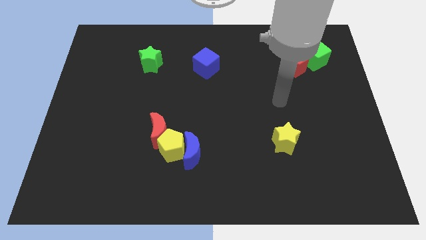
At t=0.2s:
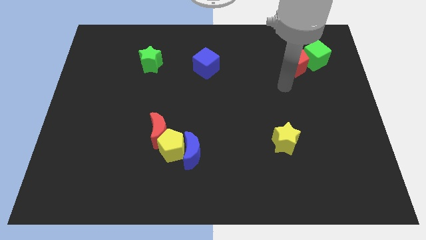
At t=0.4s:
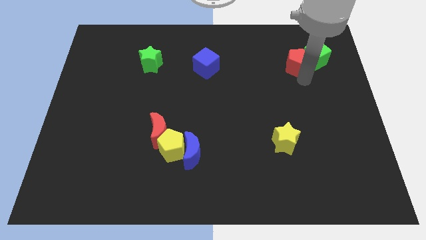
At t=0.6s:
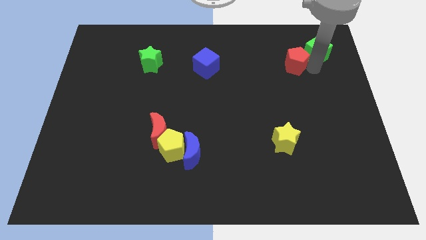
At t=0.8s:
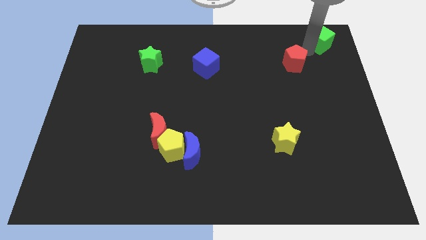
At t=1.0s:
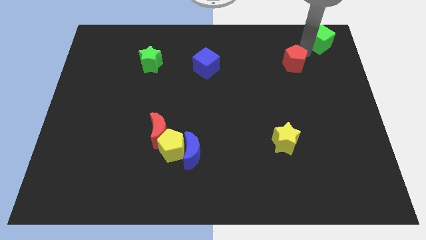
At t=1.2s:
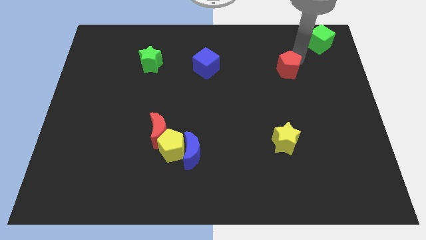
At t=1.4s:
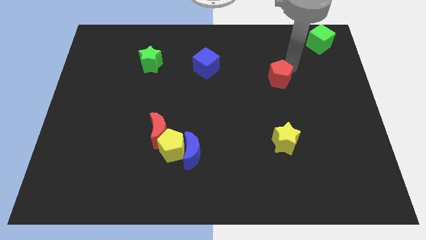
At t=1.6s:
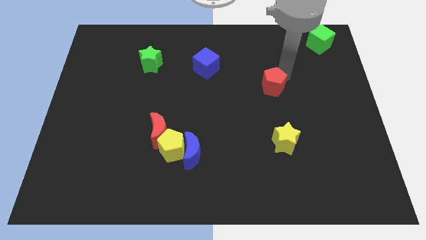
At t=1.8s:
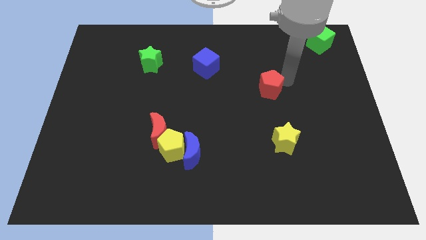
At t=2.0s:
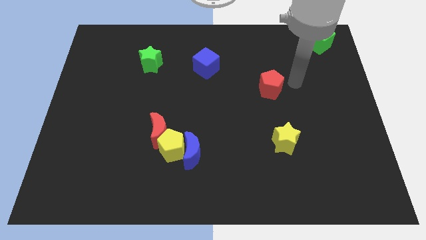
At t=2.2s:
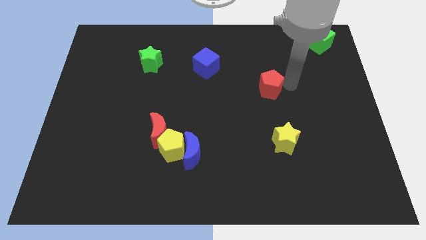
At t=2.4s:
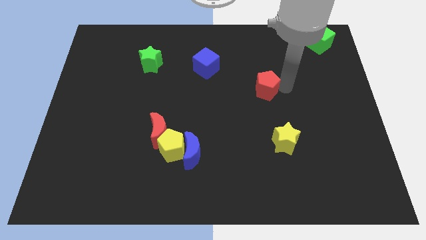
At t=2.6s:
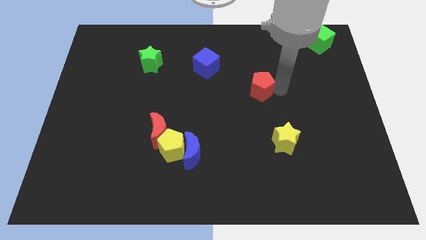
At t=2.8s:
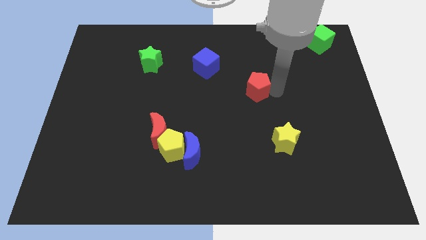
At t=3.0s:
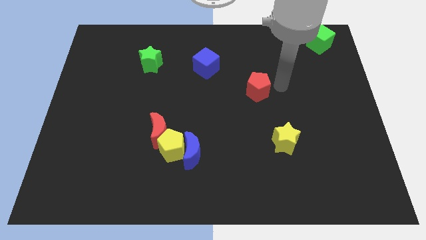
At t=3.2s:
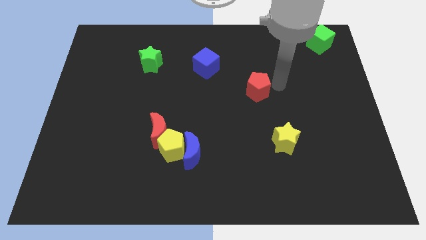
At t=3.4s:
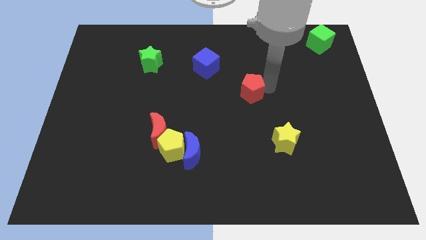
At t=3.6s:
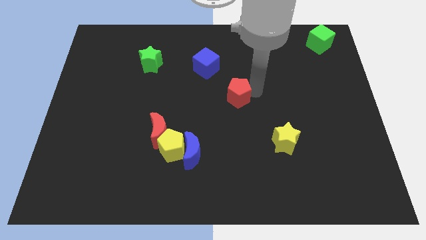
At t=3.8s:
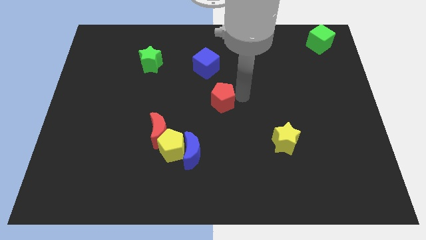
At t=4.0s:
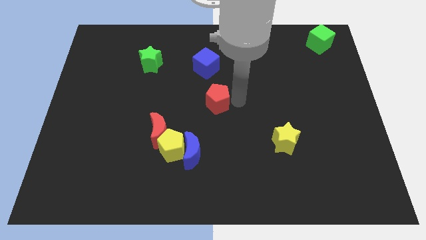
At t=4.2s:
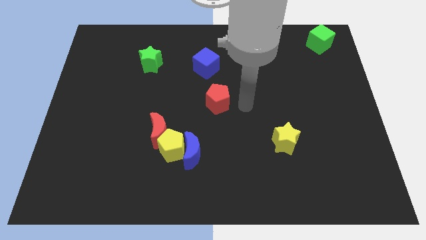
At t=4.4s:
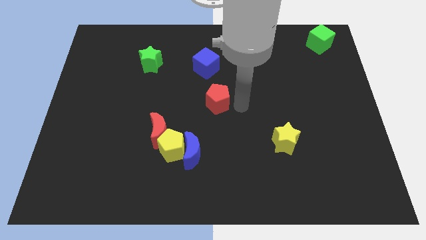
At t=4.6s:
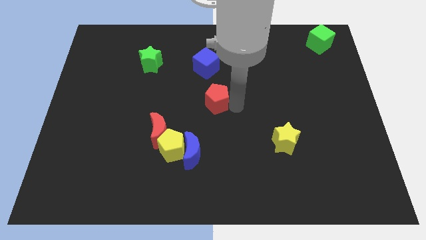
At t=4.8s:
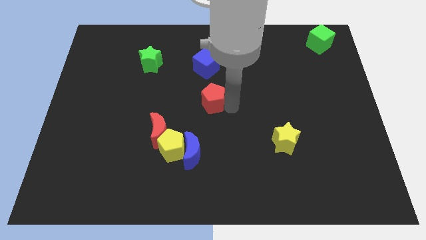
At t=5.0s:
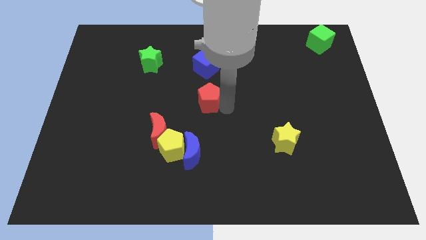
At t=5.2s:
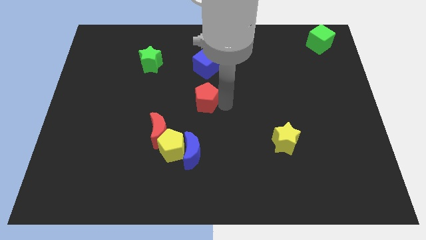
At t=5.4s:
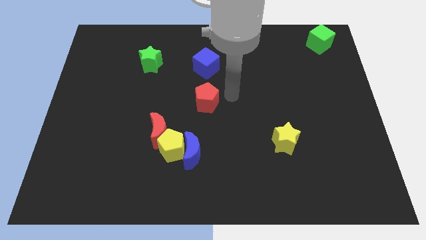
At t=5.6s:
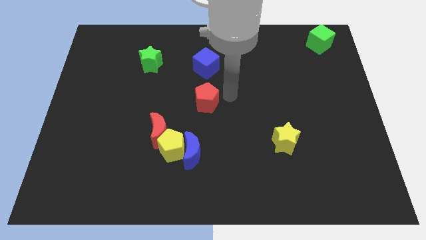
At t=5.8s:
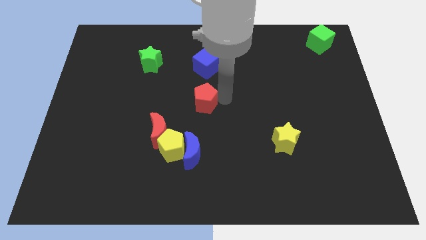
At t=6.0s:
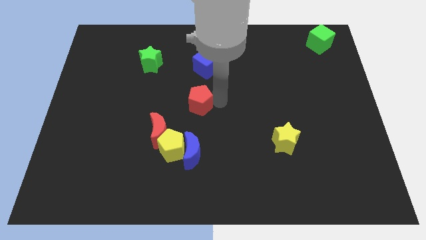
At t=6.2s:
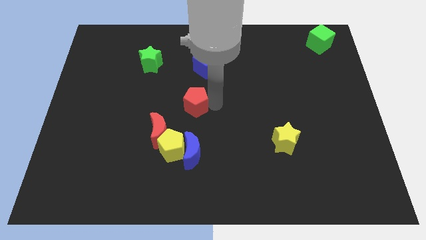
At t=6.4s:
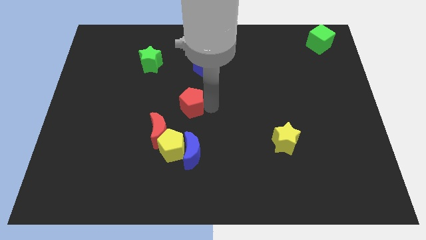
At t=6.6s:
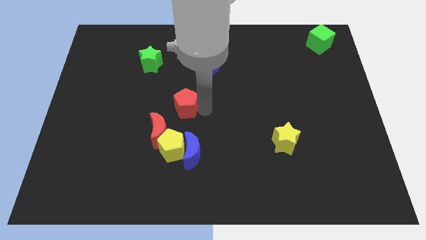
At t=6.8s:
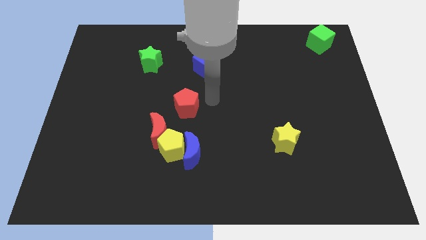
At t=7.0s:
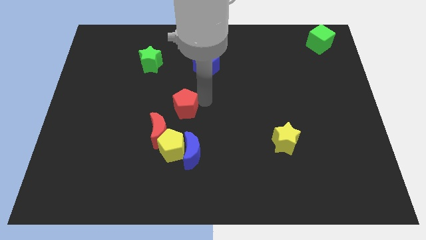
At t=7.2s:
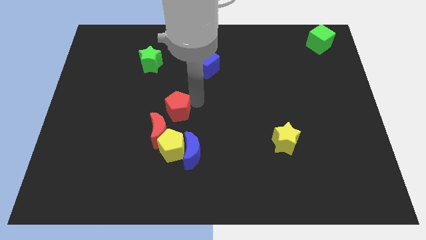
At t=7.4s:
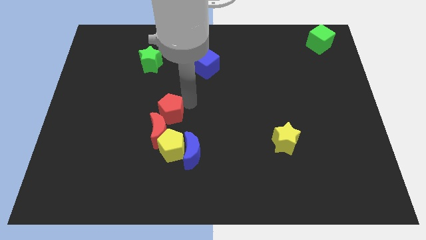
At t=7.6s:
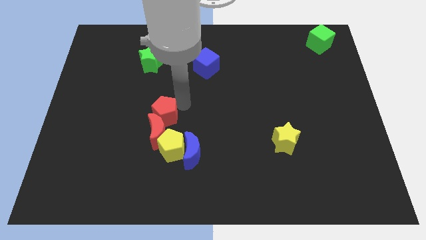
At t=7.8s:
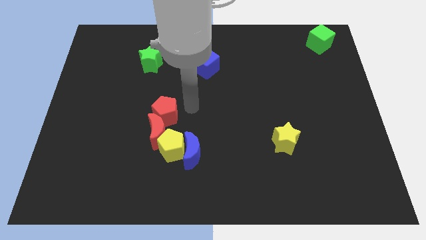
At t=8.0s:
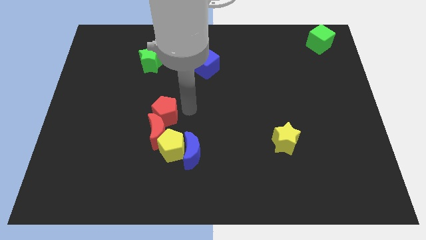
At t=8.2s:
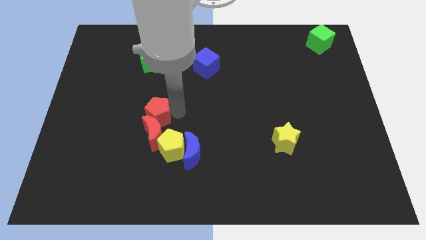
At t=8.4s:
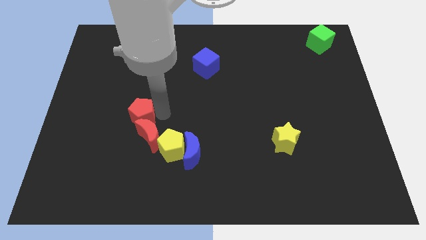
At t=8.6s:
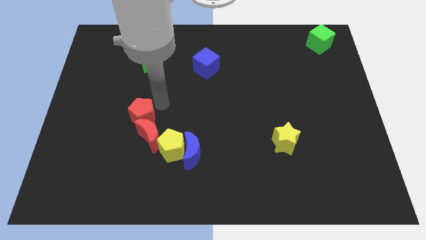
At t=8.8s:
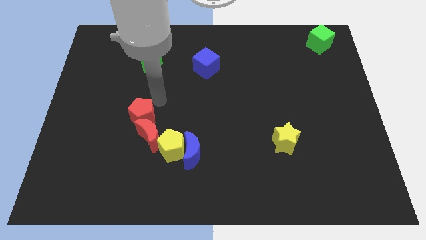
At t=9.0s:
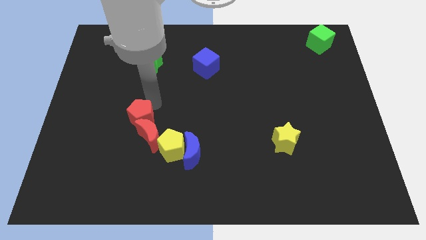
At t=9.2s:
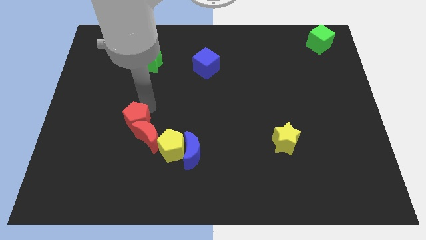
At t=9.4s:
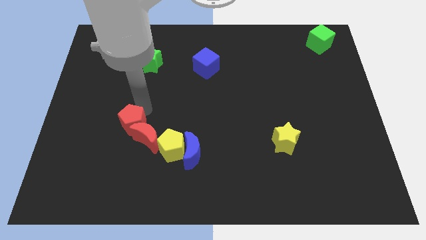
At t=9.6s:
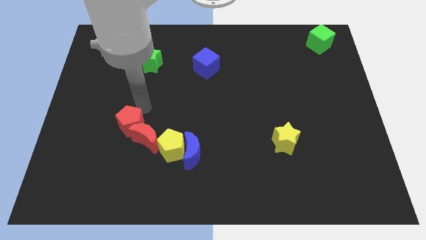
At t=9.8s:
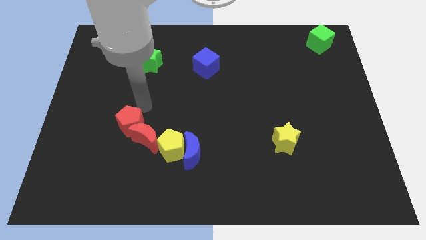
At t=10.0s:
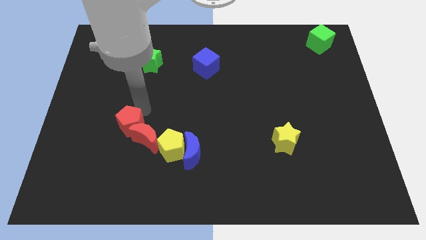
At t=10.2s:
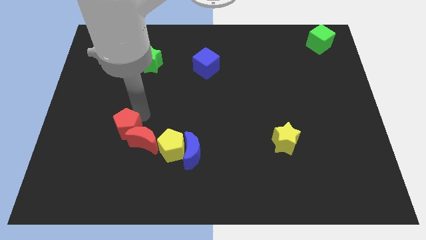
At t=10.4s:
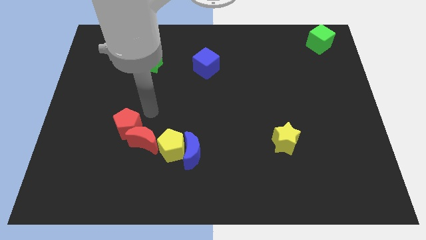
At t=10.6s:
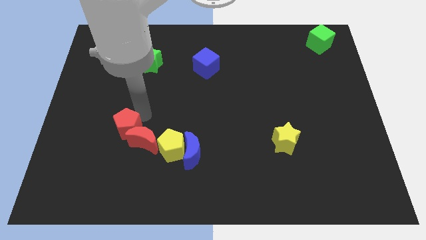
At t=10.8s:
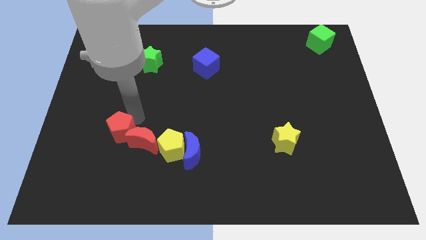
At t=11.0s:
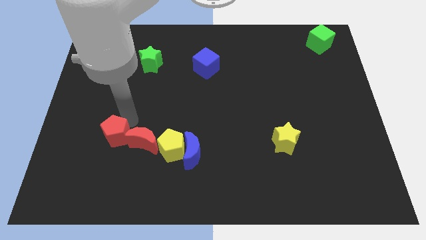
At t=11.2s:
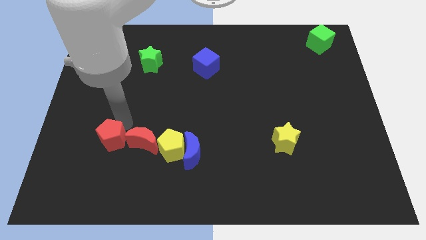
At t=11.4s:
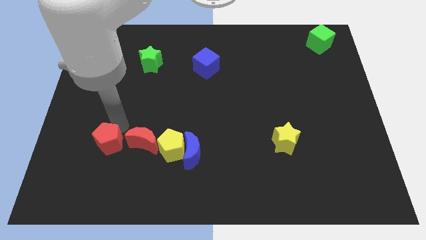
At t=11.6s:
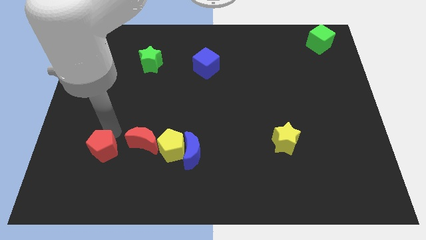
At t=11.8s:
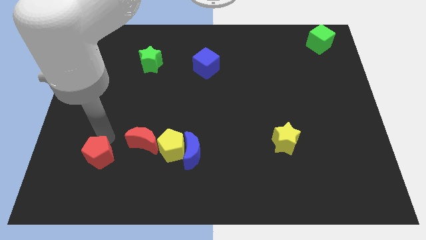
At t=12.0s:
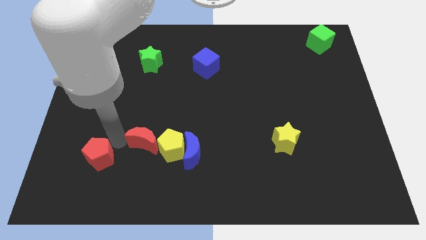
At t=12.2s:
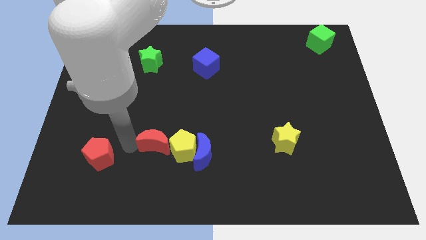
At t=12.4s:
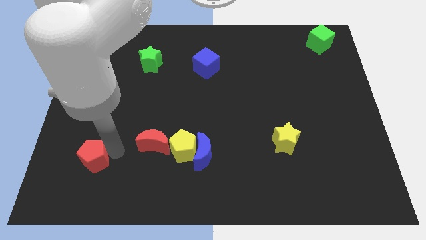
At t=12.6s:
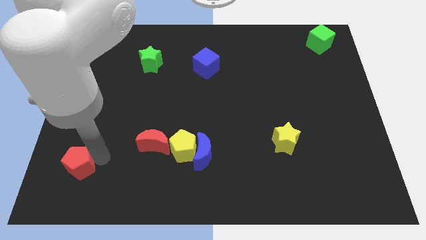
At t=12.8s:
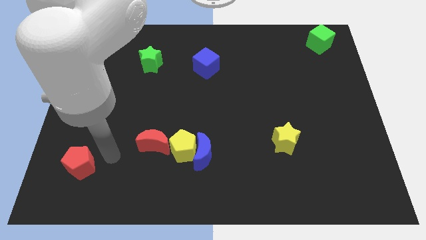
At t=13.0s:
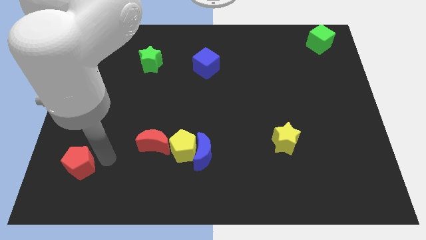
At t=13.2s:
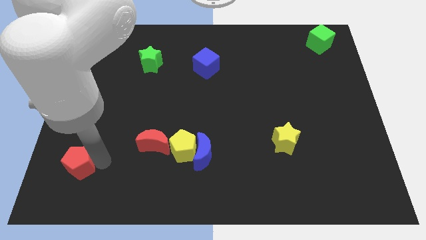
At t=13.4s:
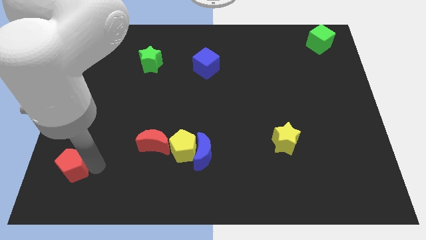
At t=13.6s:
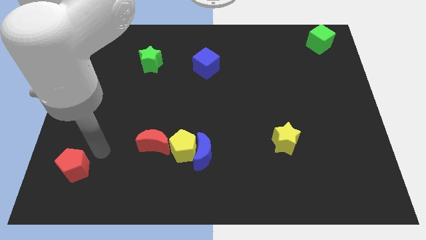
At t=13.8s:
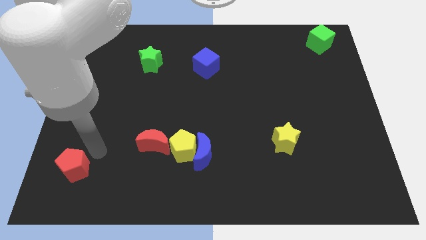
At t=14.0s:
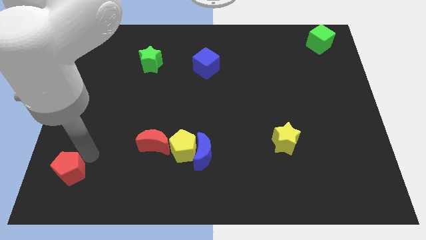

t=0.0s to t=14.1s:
move the red pentagon to the lower left corner
